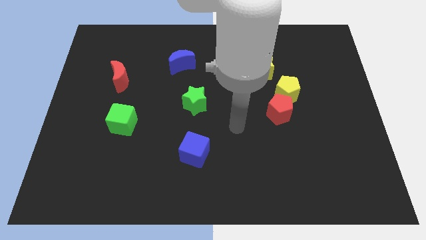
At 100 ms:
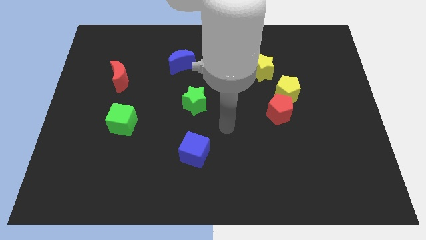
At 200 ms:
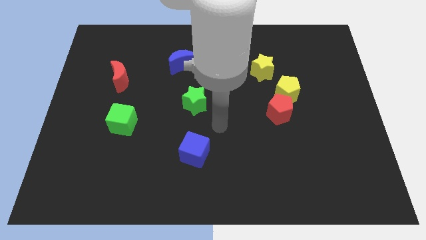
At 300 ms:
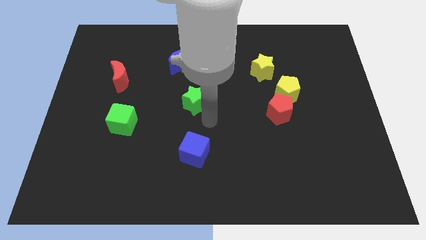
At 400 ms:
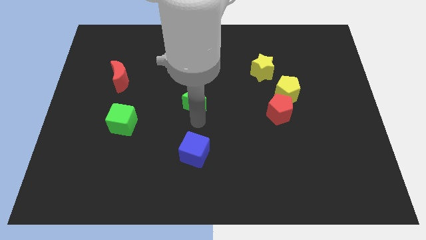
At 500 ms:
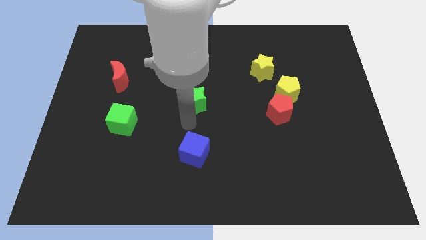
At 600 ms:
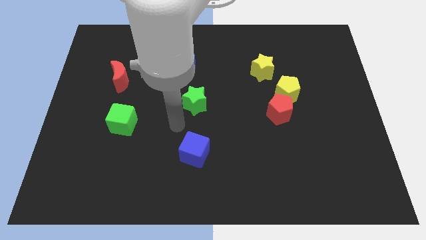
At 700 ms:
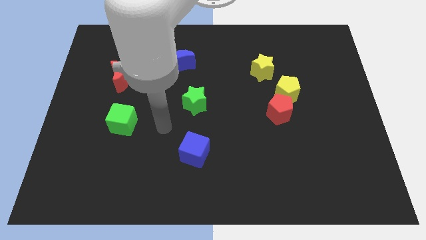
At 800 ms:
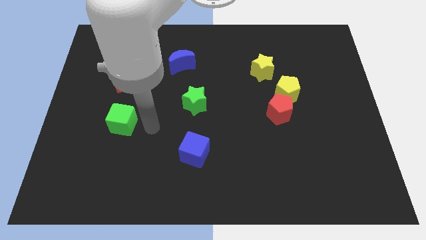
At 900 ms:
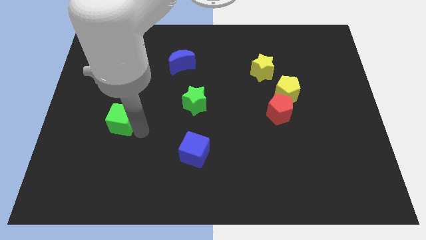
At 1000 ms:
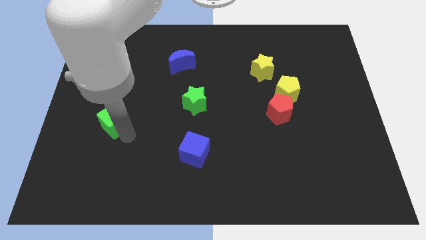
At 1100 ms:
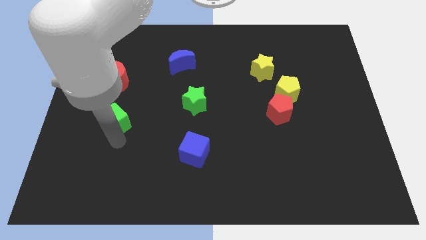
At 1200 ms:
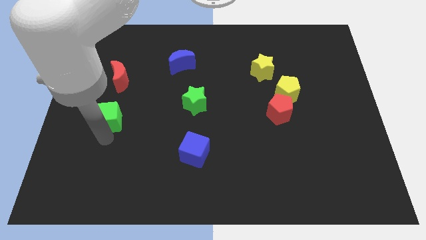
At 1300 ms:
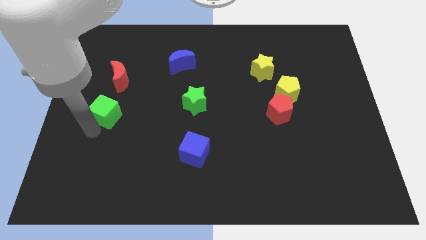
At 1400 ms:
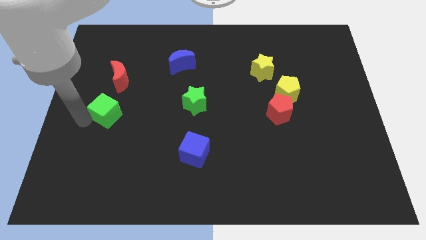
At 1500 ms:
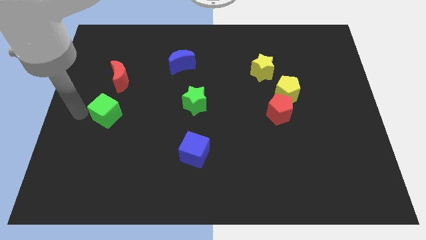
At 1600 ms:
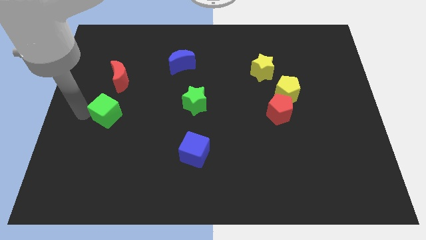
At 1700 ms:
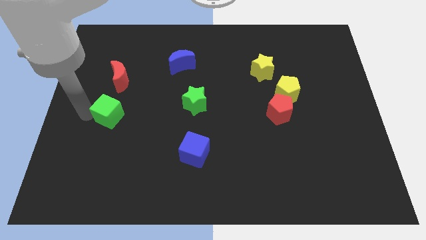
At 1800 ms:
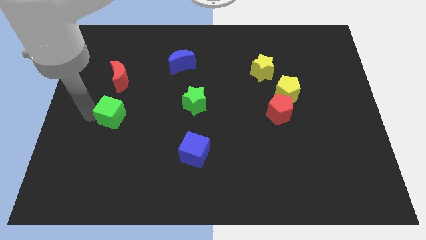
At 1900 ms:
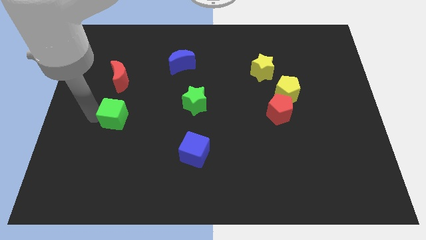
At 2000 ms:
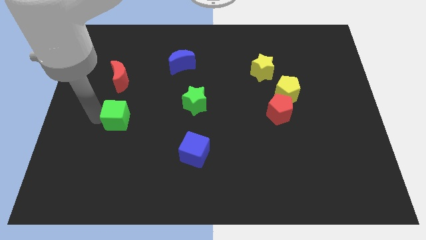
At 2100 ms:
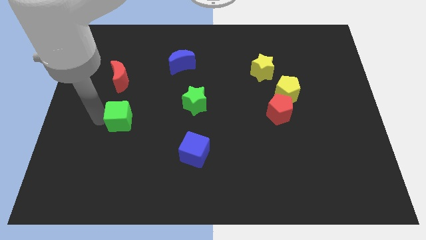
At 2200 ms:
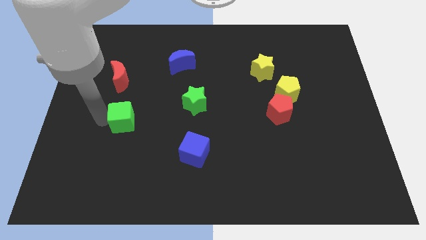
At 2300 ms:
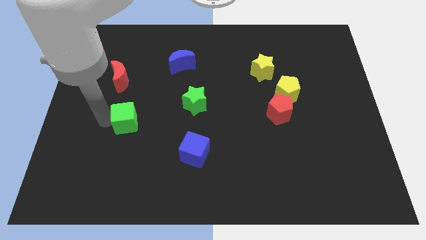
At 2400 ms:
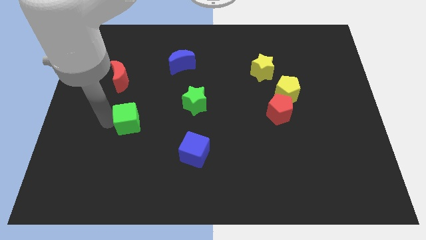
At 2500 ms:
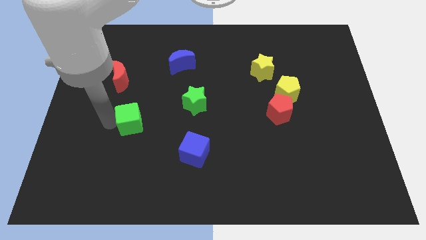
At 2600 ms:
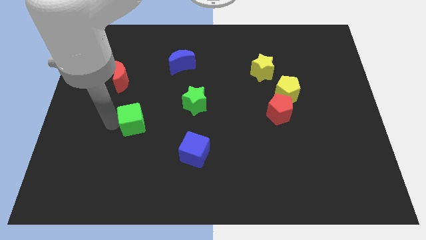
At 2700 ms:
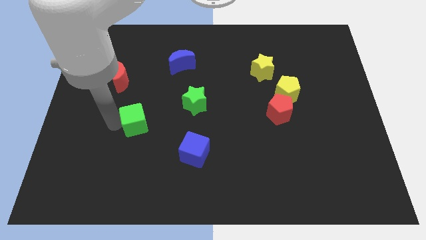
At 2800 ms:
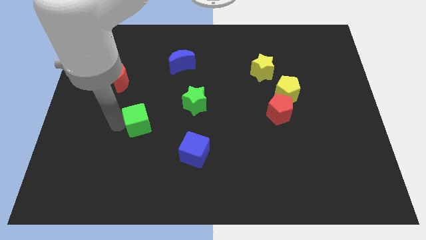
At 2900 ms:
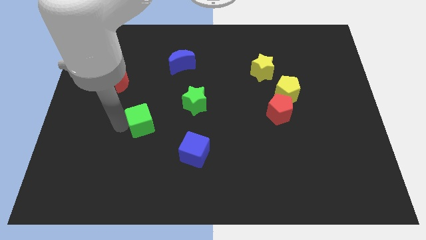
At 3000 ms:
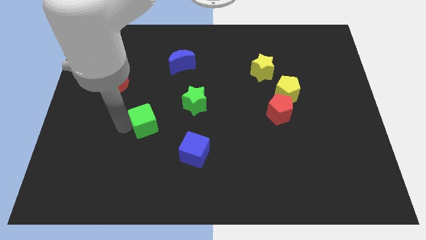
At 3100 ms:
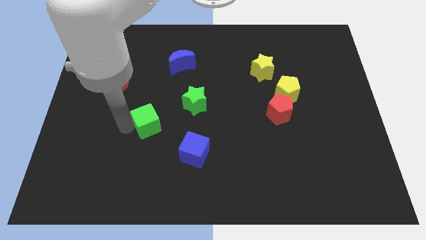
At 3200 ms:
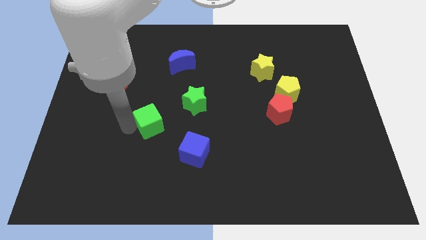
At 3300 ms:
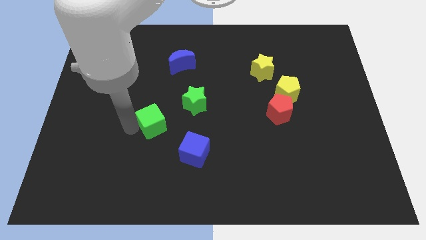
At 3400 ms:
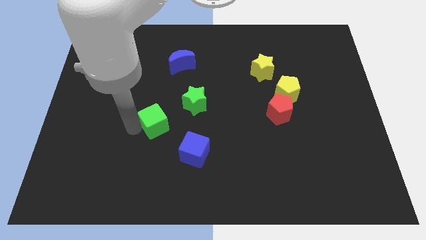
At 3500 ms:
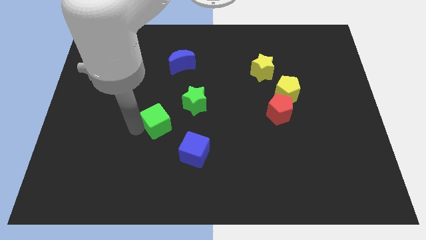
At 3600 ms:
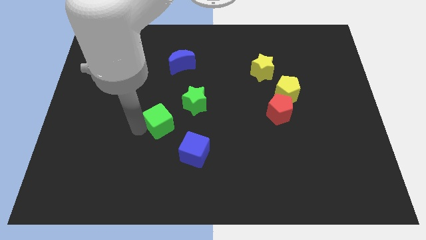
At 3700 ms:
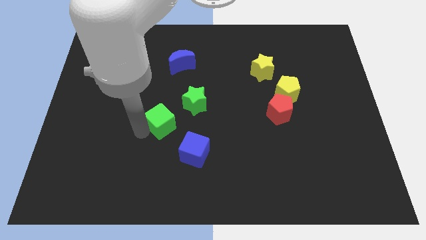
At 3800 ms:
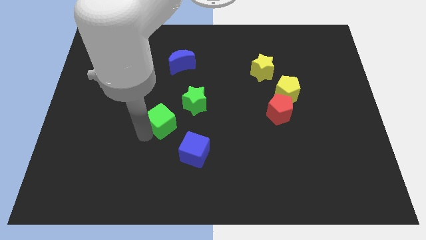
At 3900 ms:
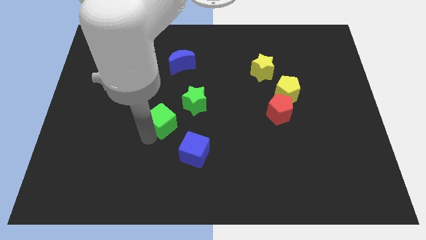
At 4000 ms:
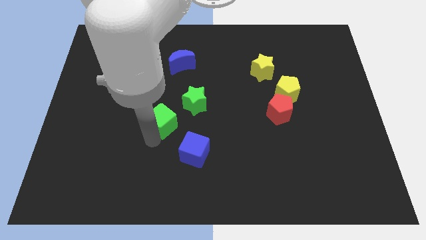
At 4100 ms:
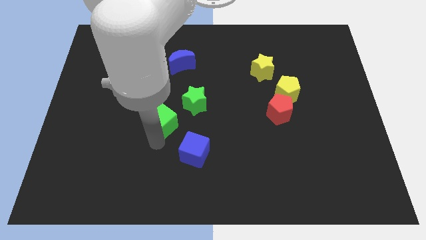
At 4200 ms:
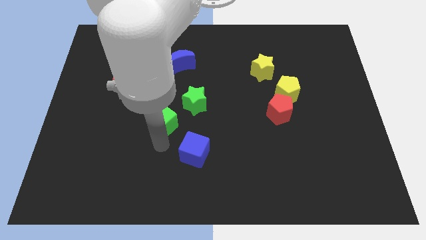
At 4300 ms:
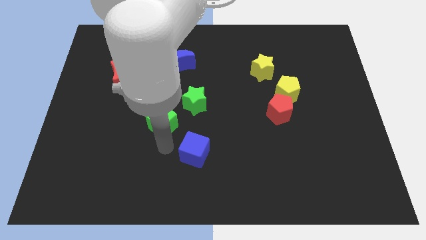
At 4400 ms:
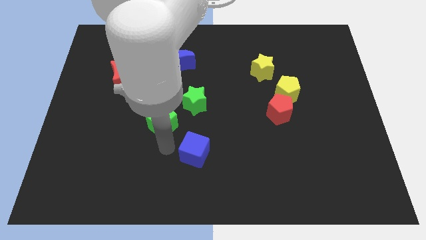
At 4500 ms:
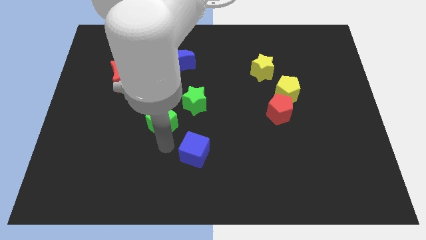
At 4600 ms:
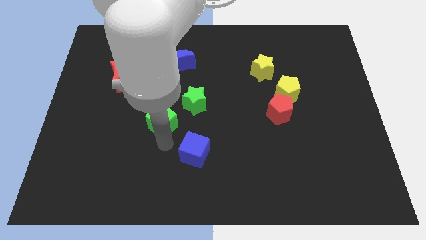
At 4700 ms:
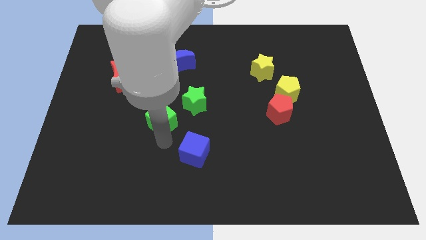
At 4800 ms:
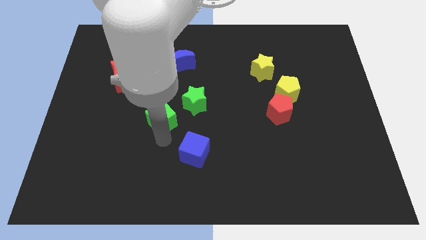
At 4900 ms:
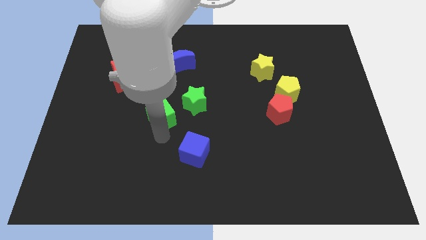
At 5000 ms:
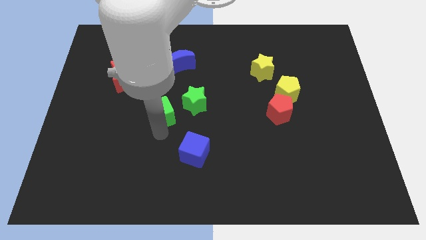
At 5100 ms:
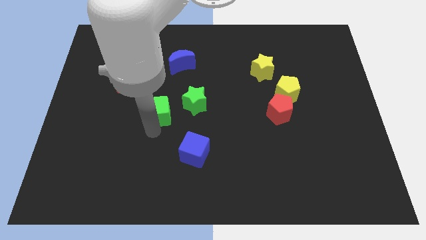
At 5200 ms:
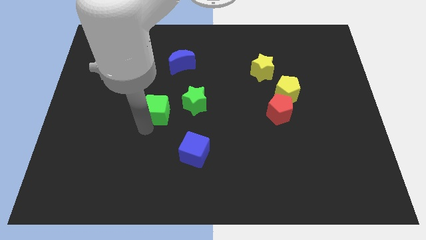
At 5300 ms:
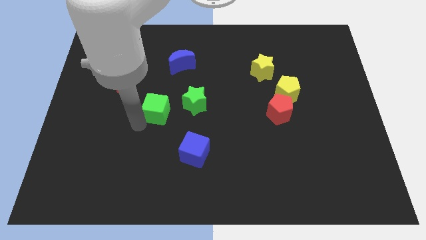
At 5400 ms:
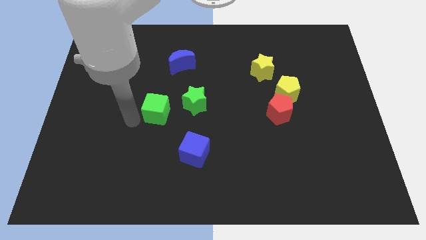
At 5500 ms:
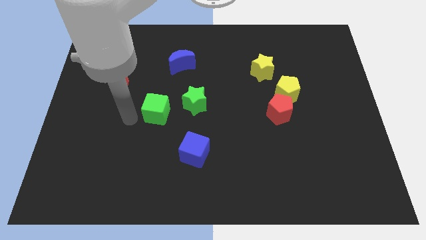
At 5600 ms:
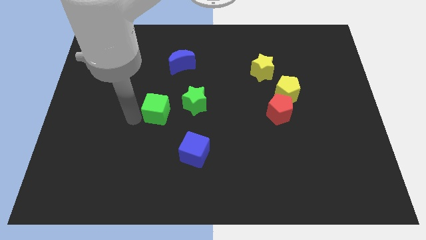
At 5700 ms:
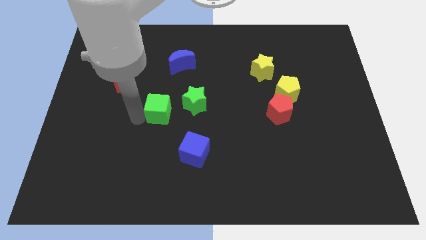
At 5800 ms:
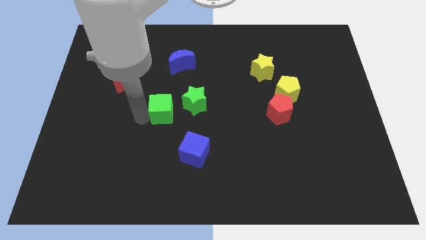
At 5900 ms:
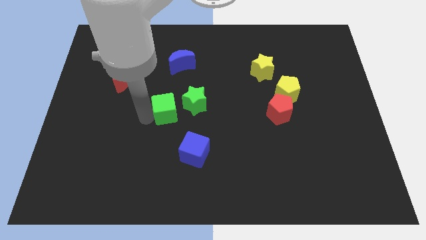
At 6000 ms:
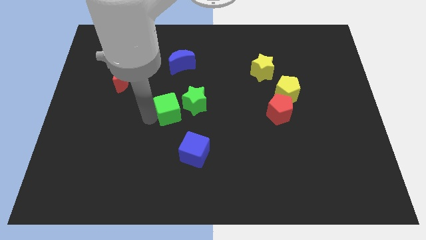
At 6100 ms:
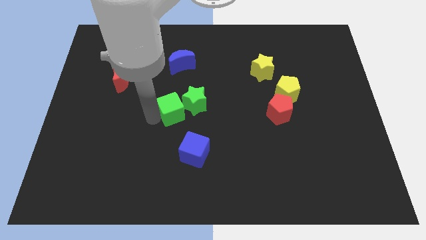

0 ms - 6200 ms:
push the green cube to the green star

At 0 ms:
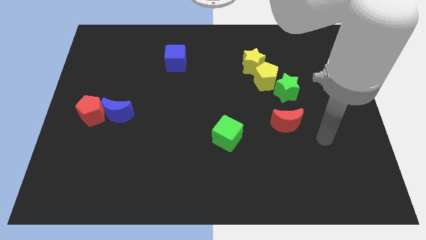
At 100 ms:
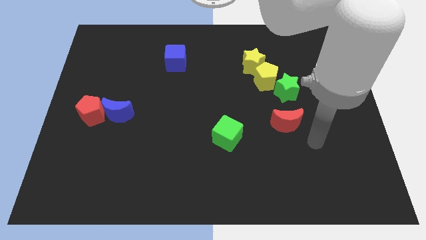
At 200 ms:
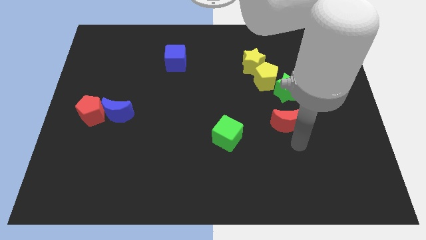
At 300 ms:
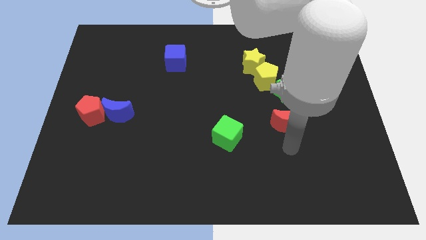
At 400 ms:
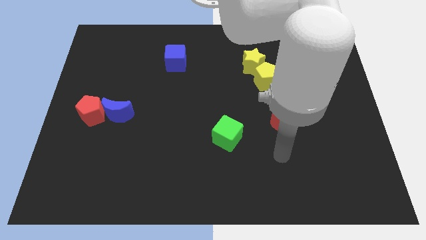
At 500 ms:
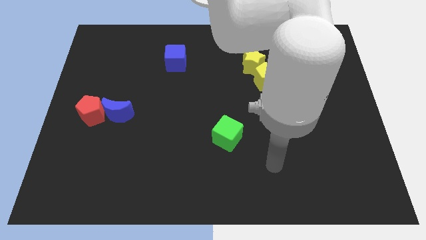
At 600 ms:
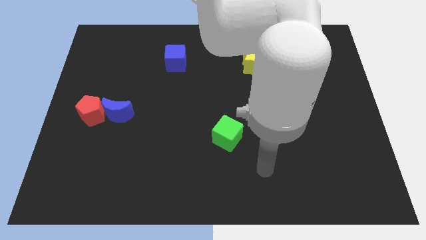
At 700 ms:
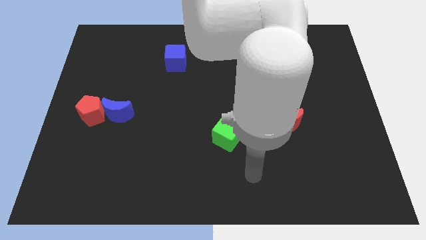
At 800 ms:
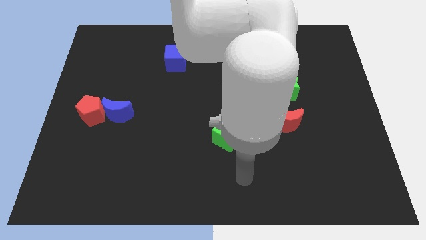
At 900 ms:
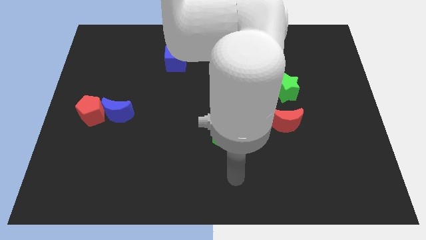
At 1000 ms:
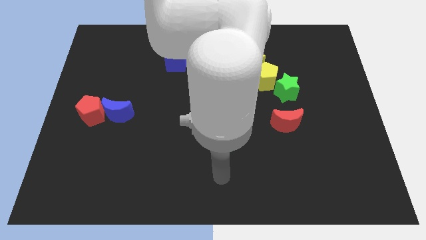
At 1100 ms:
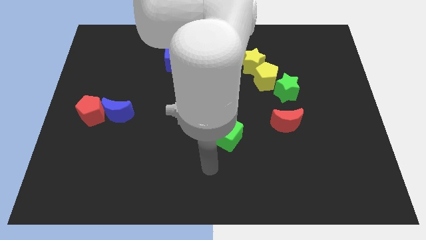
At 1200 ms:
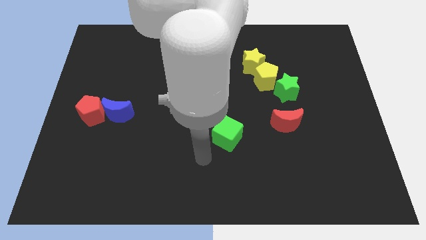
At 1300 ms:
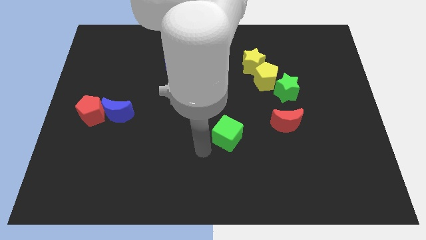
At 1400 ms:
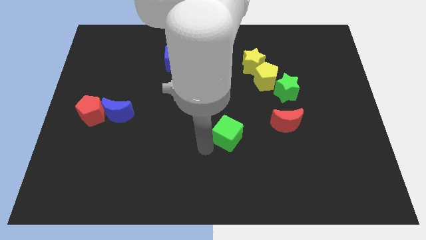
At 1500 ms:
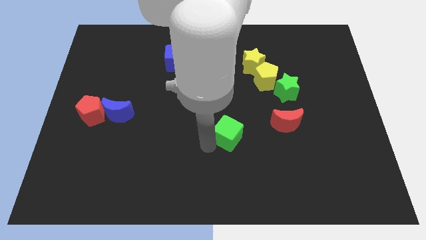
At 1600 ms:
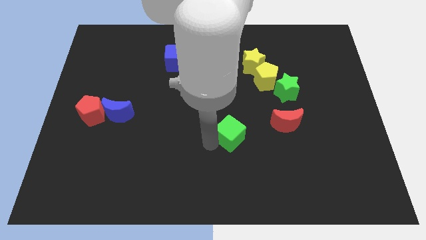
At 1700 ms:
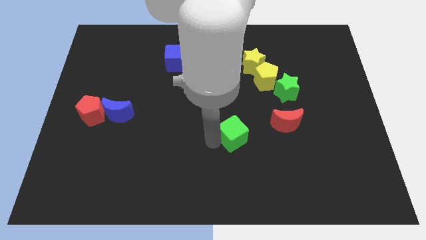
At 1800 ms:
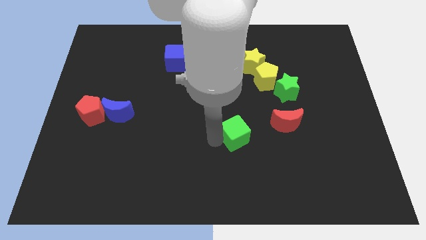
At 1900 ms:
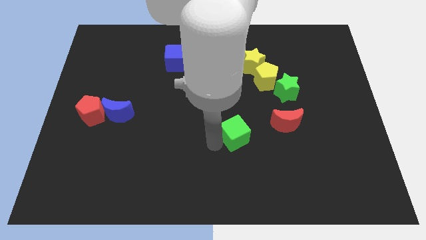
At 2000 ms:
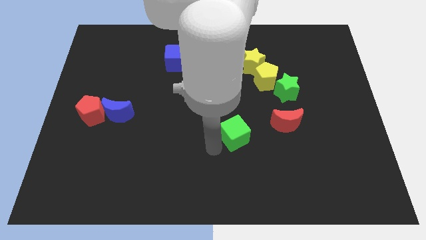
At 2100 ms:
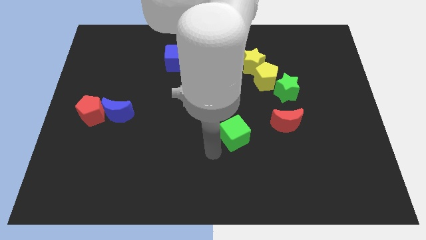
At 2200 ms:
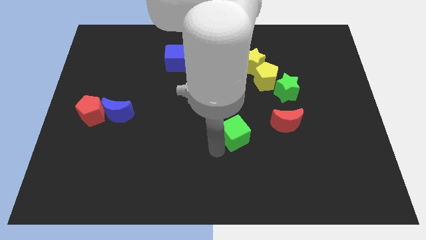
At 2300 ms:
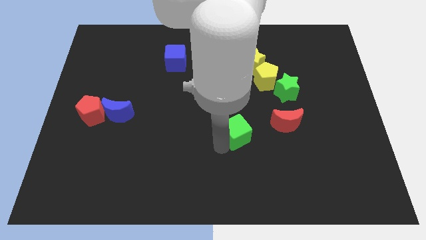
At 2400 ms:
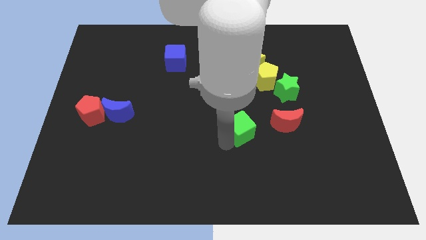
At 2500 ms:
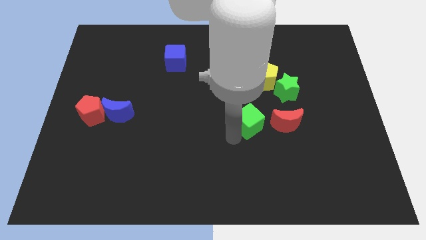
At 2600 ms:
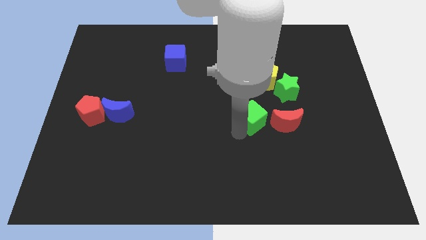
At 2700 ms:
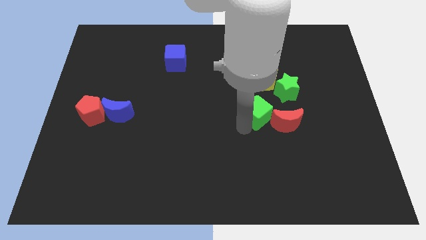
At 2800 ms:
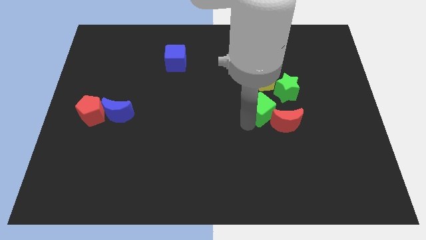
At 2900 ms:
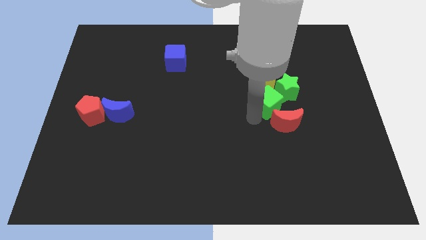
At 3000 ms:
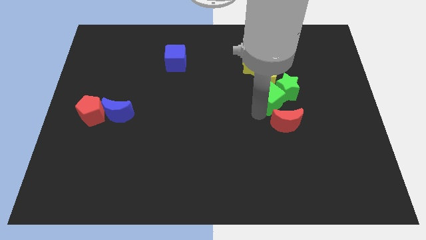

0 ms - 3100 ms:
put the green cube close to the green star
